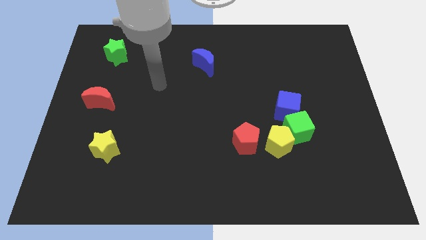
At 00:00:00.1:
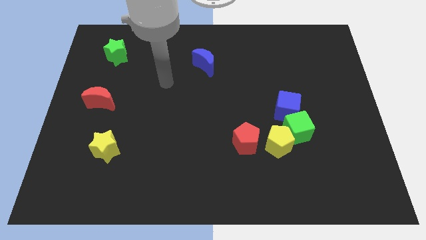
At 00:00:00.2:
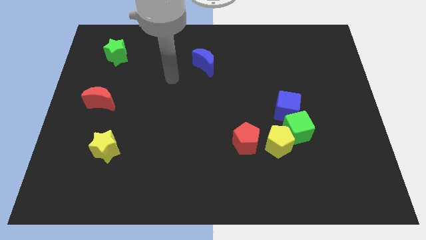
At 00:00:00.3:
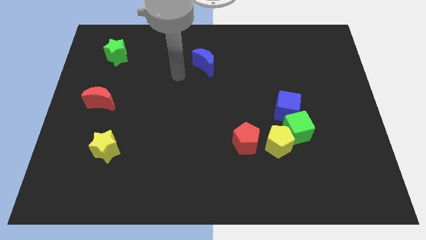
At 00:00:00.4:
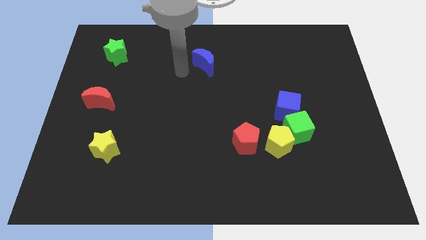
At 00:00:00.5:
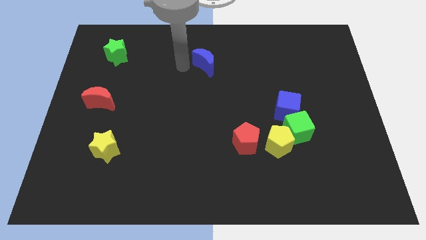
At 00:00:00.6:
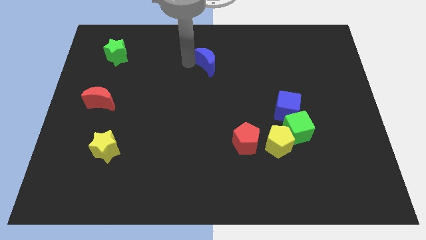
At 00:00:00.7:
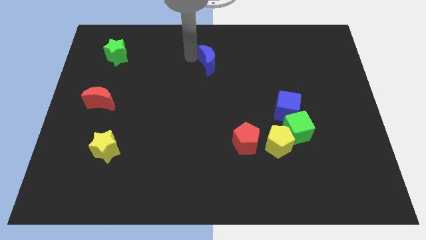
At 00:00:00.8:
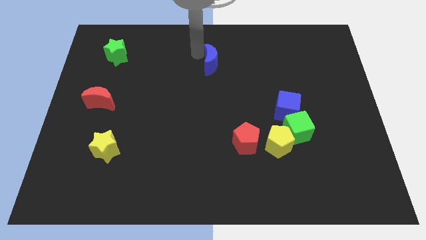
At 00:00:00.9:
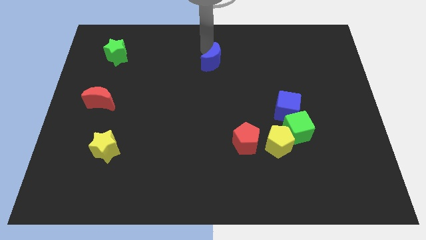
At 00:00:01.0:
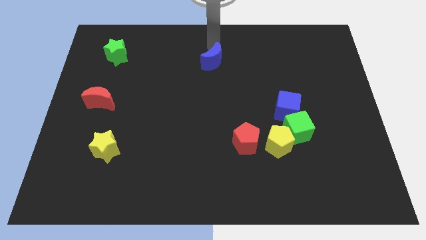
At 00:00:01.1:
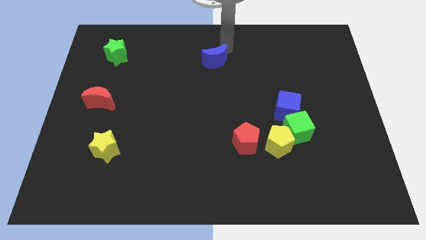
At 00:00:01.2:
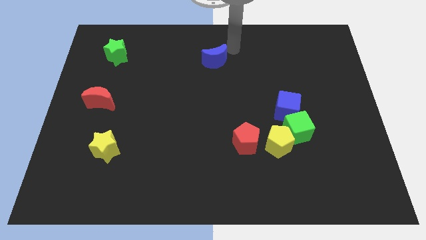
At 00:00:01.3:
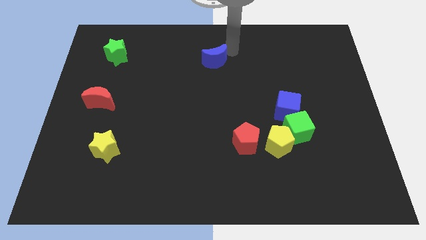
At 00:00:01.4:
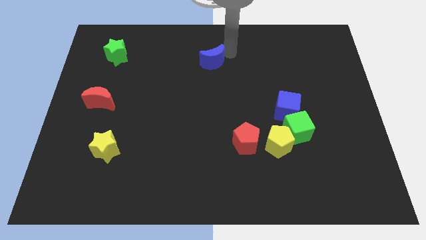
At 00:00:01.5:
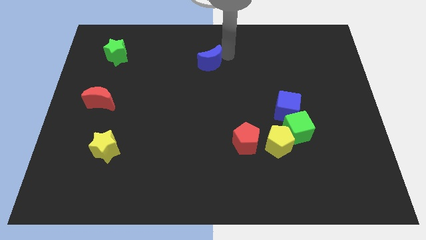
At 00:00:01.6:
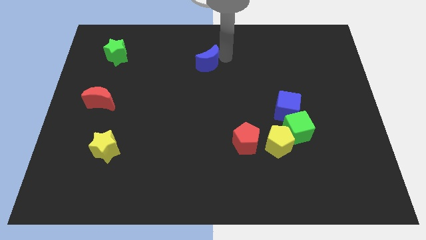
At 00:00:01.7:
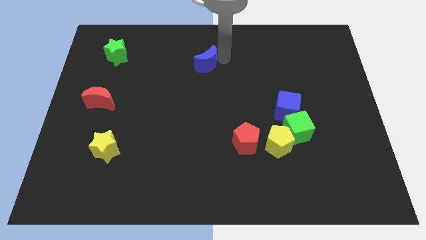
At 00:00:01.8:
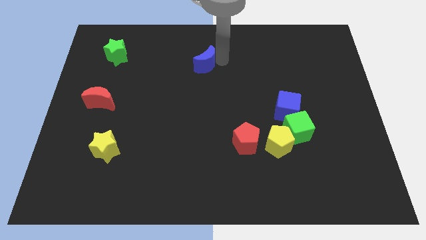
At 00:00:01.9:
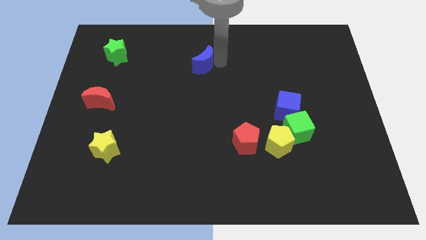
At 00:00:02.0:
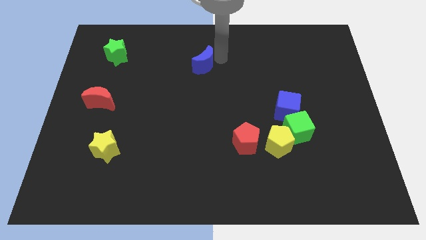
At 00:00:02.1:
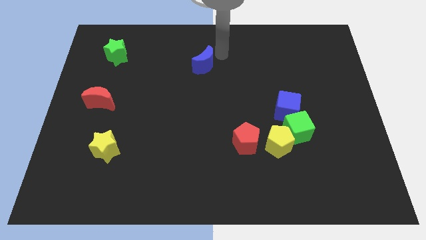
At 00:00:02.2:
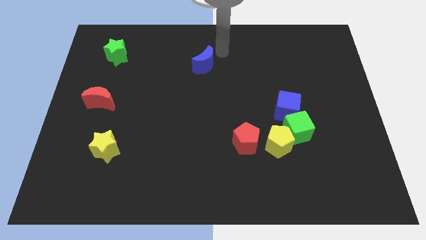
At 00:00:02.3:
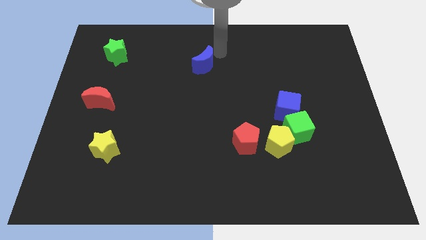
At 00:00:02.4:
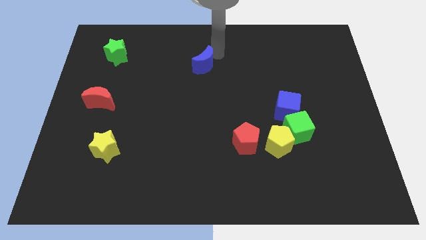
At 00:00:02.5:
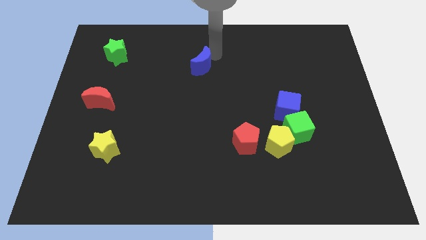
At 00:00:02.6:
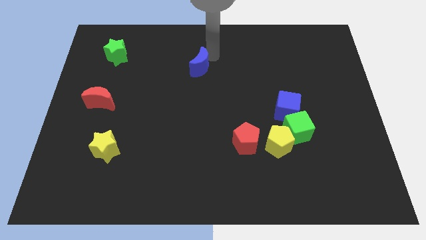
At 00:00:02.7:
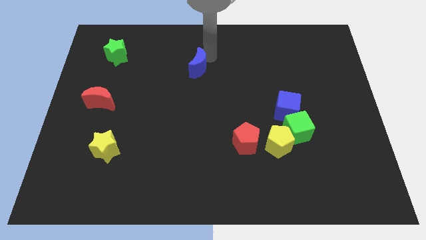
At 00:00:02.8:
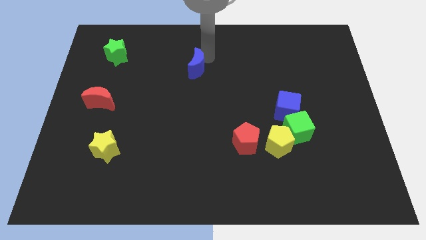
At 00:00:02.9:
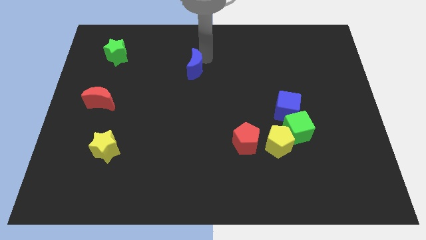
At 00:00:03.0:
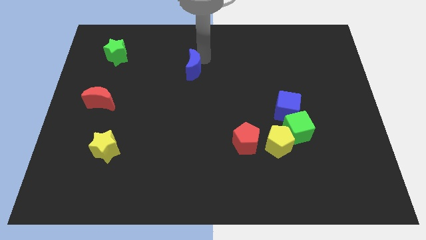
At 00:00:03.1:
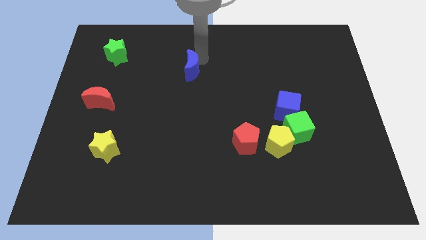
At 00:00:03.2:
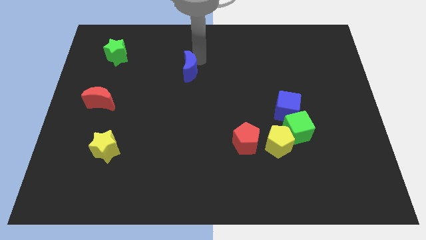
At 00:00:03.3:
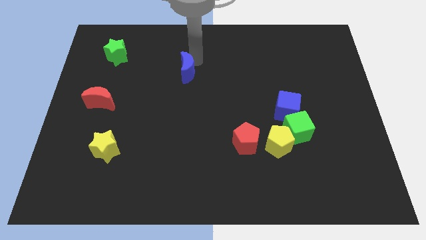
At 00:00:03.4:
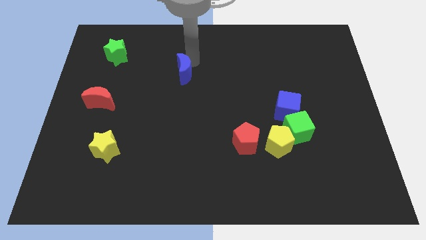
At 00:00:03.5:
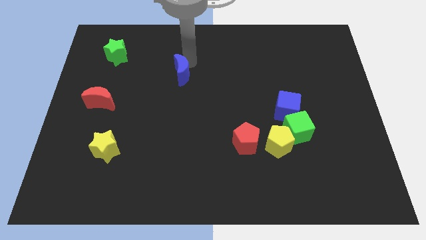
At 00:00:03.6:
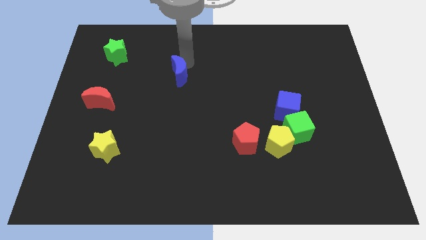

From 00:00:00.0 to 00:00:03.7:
slightly slide the blue moon diagonally downwards and left

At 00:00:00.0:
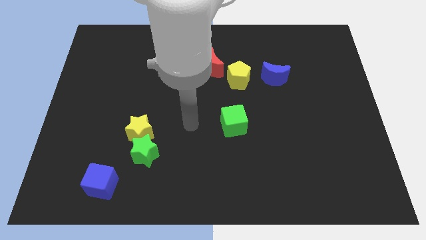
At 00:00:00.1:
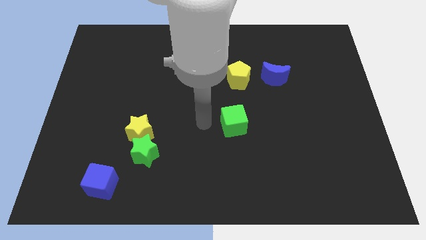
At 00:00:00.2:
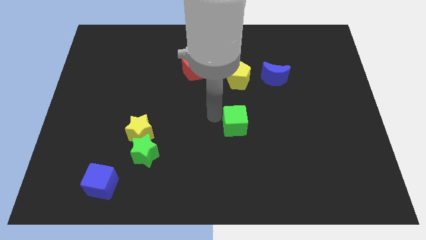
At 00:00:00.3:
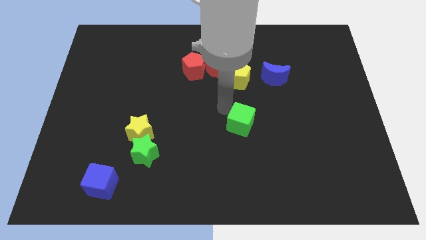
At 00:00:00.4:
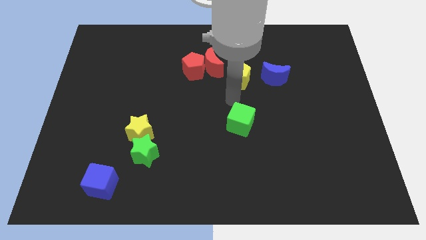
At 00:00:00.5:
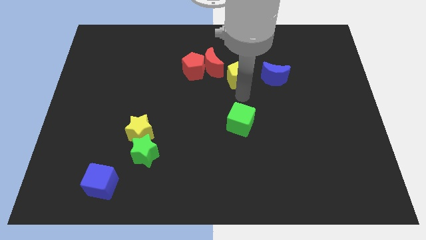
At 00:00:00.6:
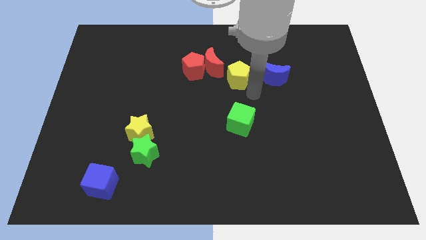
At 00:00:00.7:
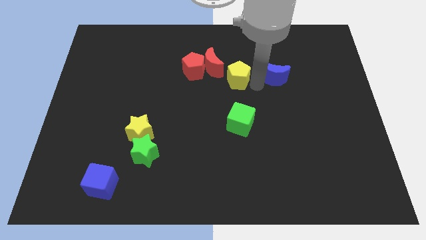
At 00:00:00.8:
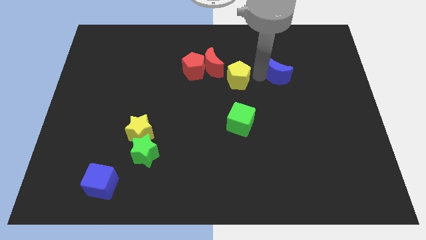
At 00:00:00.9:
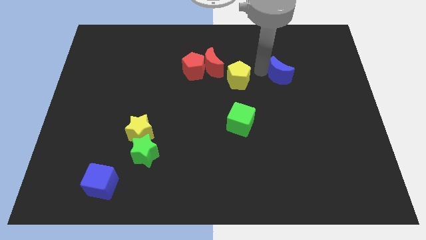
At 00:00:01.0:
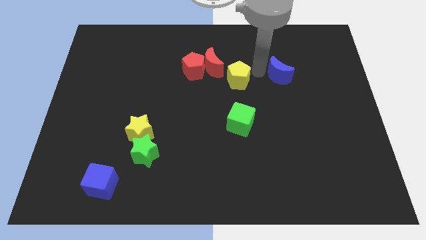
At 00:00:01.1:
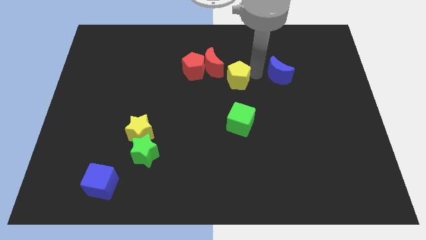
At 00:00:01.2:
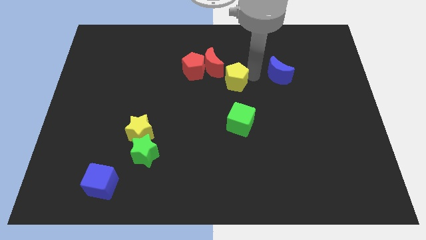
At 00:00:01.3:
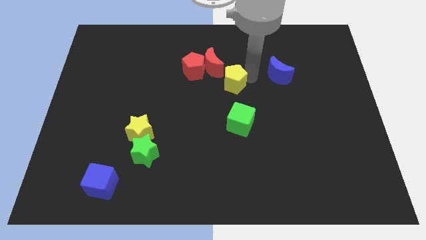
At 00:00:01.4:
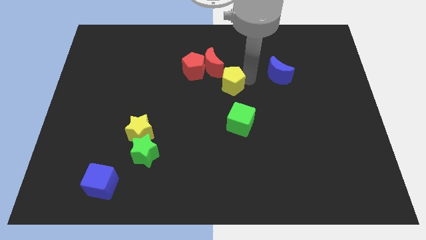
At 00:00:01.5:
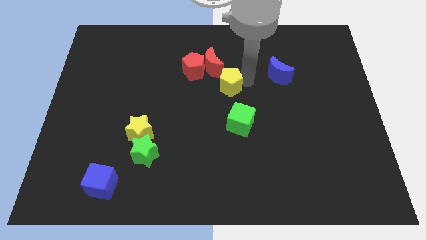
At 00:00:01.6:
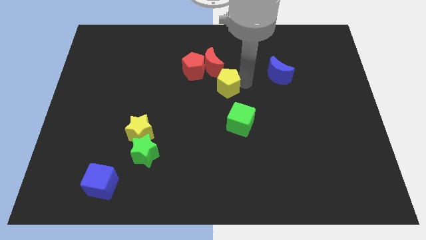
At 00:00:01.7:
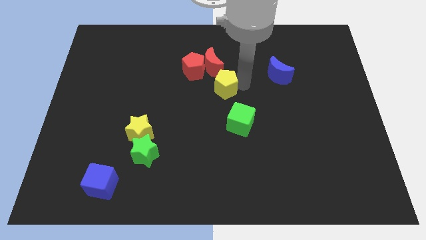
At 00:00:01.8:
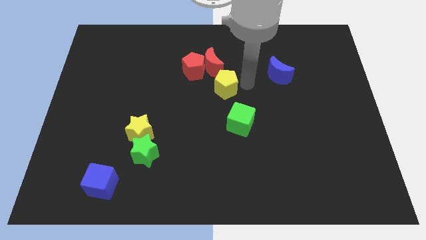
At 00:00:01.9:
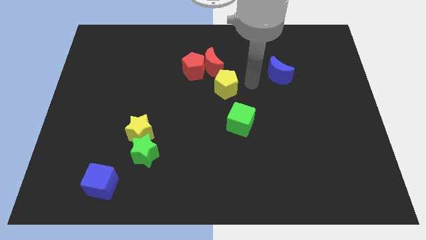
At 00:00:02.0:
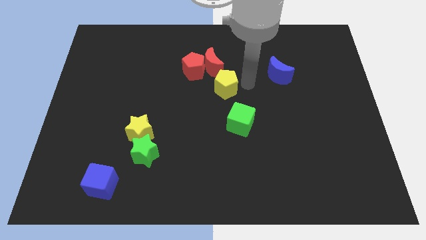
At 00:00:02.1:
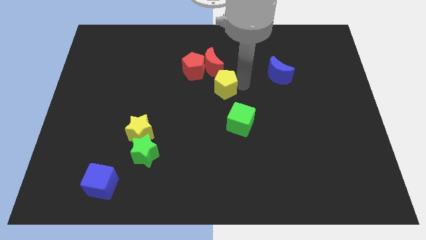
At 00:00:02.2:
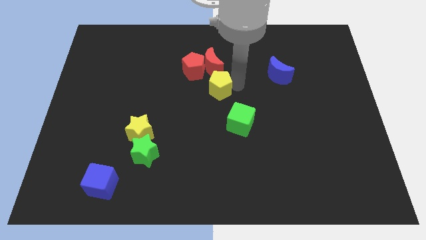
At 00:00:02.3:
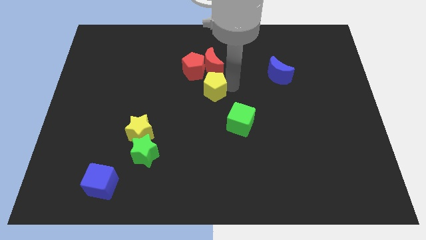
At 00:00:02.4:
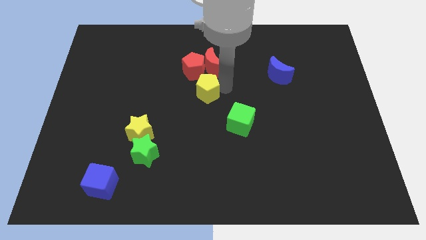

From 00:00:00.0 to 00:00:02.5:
push the yellow pentagon to the left slightly

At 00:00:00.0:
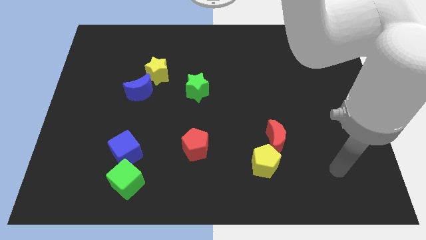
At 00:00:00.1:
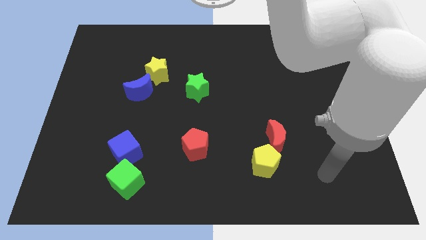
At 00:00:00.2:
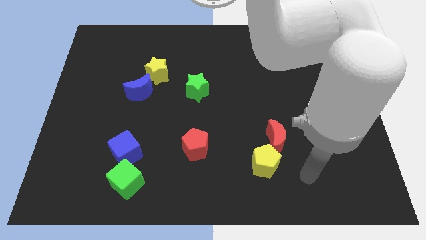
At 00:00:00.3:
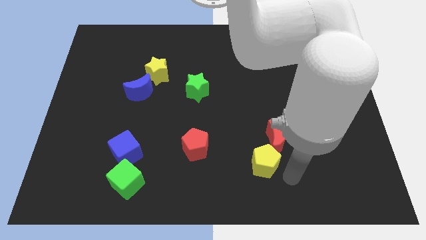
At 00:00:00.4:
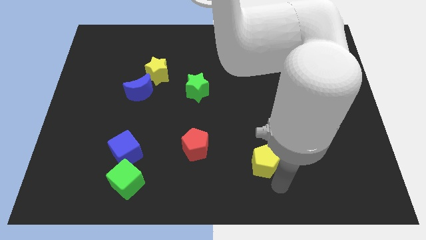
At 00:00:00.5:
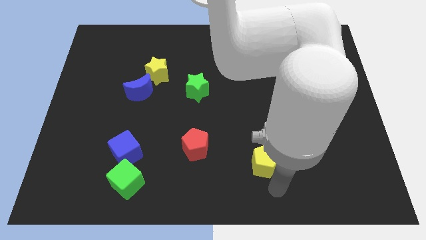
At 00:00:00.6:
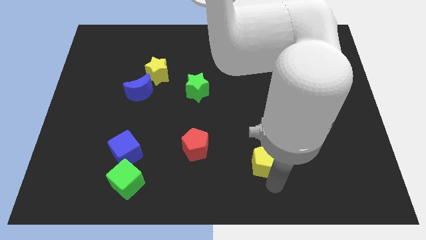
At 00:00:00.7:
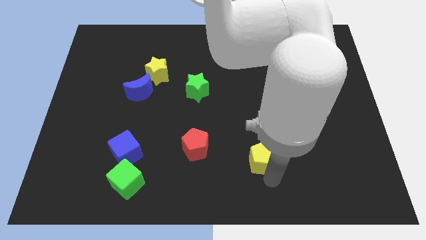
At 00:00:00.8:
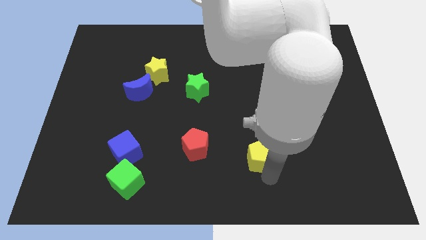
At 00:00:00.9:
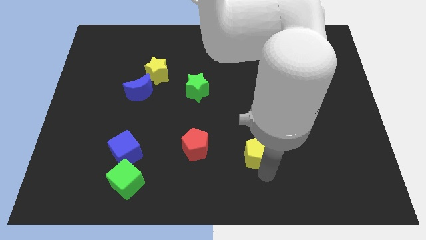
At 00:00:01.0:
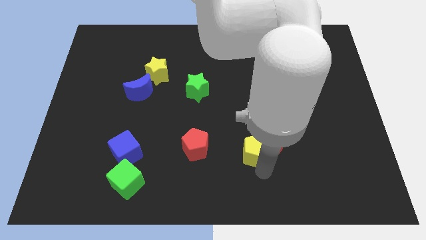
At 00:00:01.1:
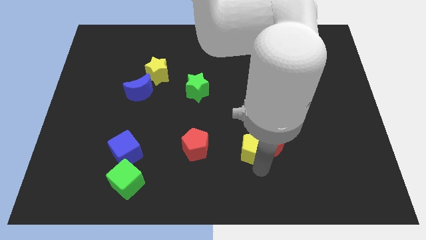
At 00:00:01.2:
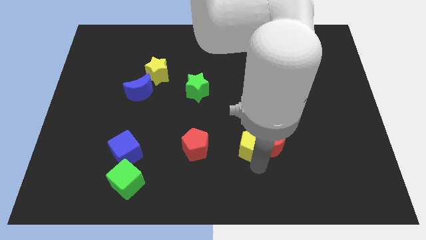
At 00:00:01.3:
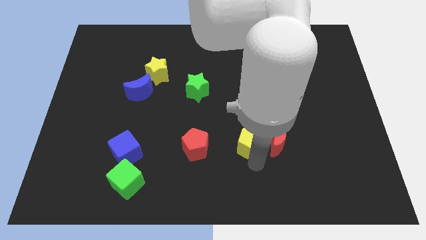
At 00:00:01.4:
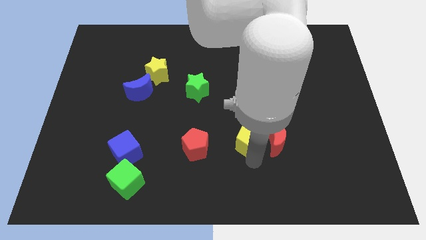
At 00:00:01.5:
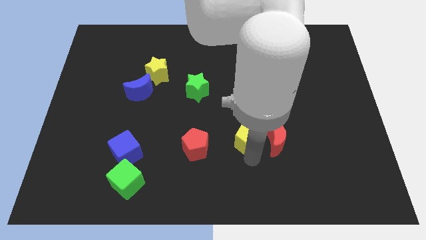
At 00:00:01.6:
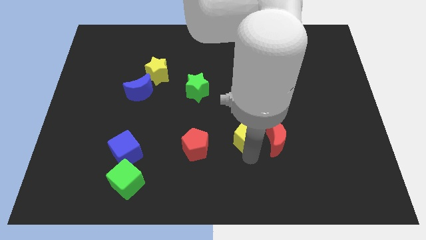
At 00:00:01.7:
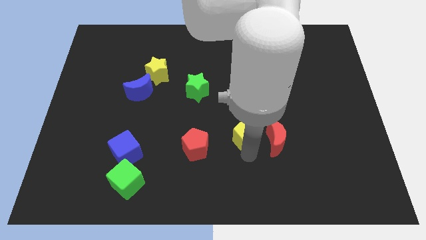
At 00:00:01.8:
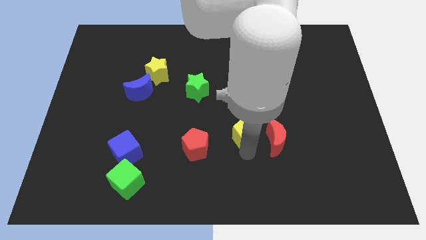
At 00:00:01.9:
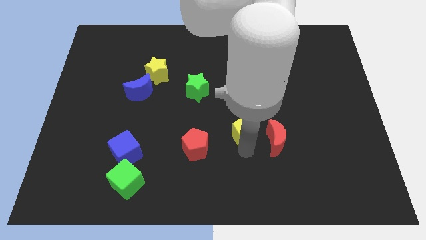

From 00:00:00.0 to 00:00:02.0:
slightly move the yellow pentagon up
